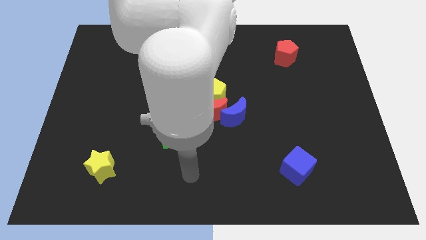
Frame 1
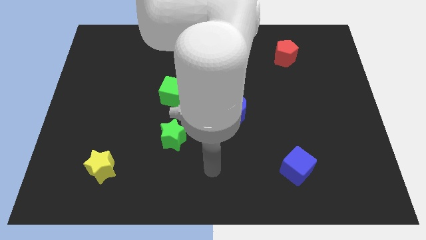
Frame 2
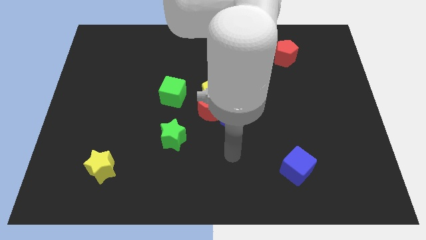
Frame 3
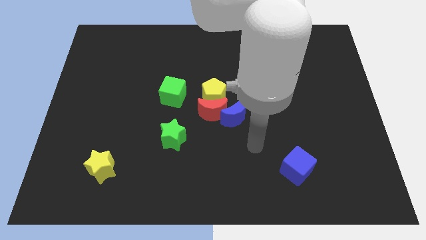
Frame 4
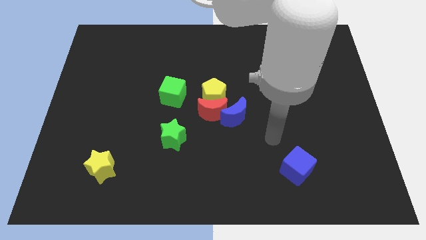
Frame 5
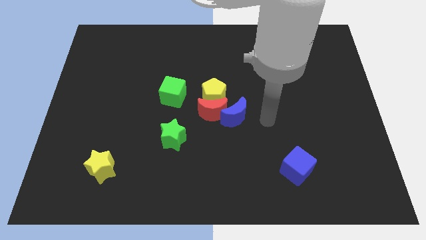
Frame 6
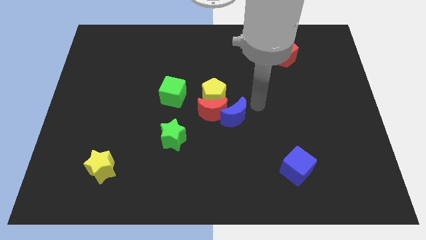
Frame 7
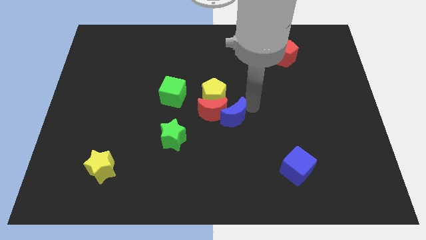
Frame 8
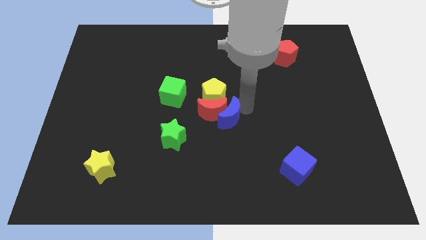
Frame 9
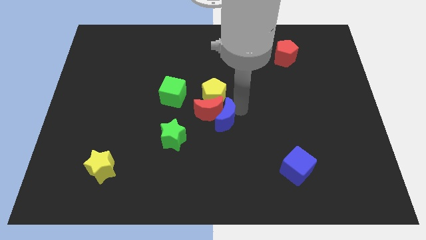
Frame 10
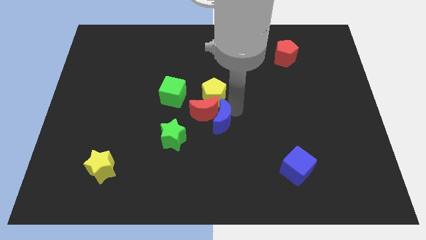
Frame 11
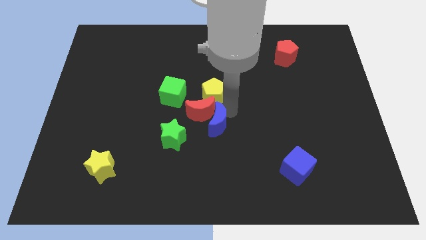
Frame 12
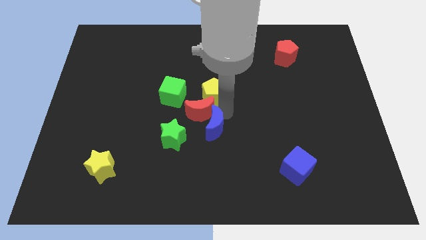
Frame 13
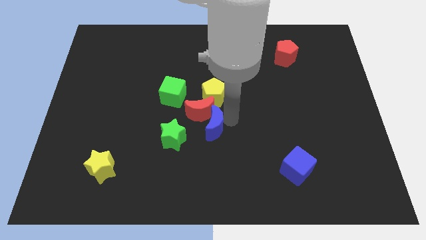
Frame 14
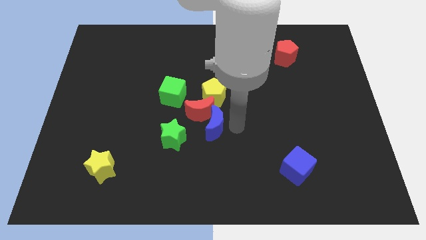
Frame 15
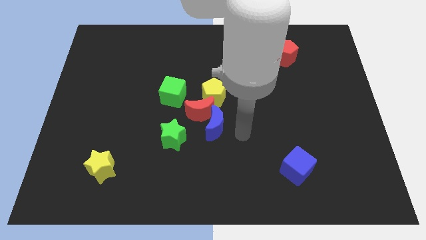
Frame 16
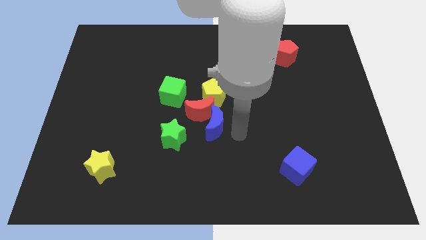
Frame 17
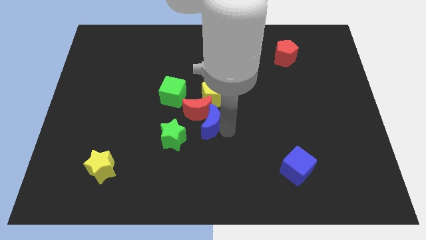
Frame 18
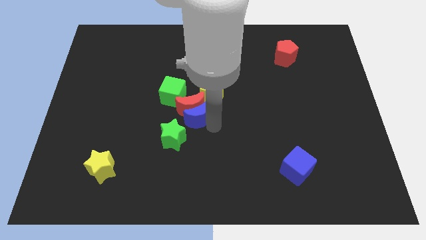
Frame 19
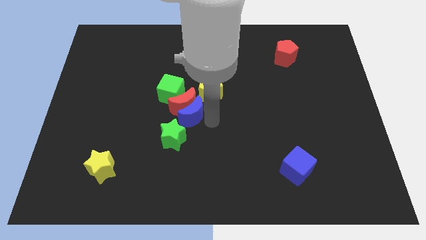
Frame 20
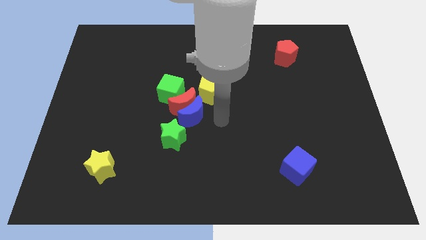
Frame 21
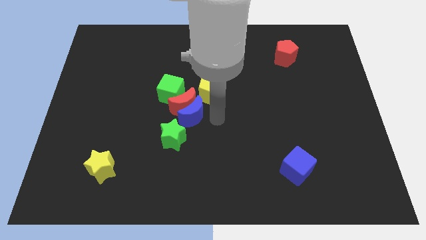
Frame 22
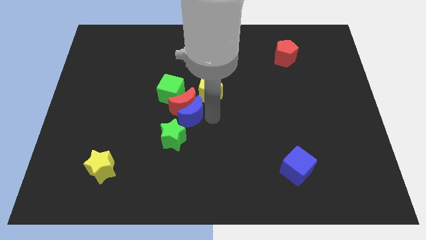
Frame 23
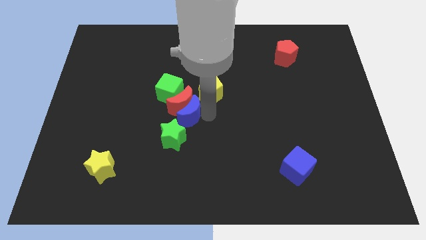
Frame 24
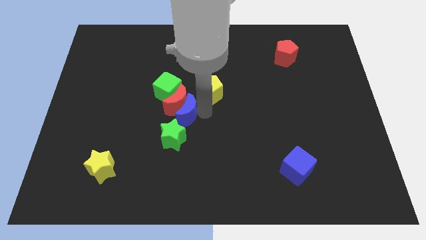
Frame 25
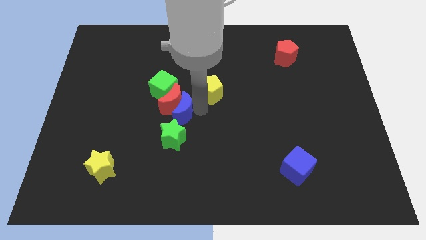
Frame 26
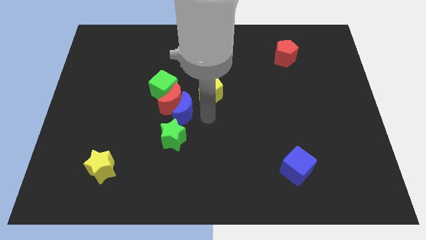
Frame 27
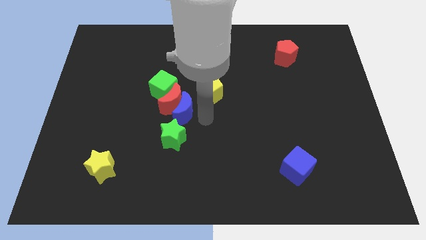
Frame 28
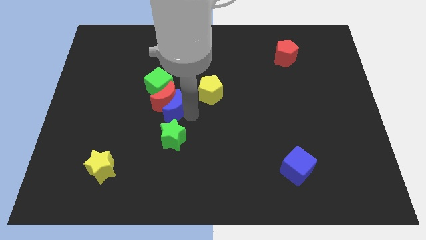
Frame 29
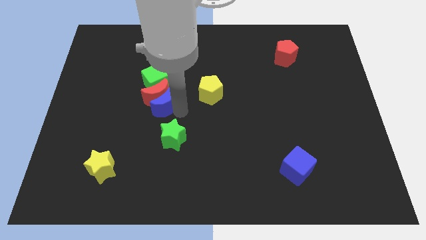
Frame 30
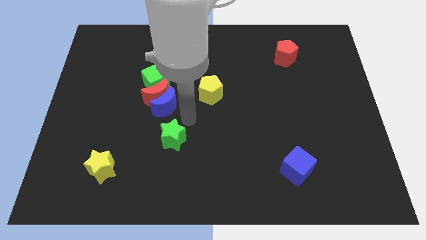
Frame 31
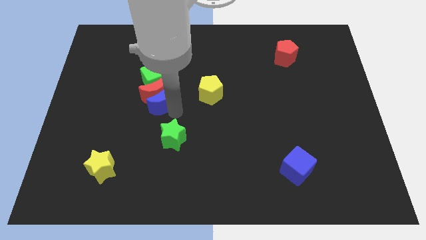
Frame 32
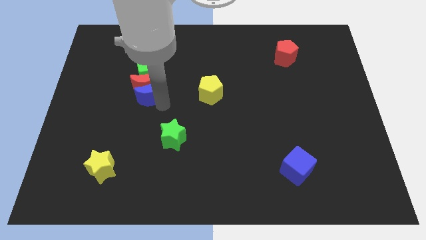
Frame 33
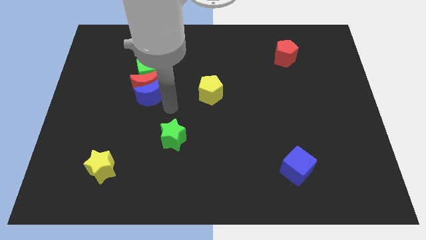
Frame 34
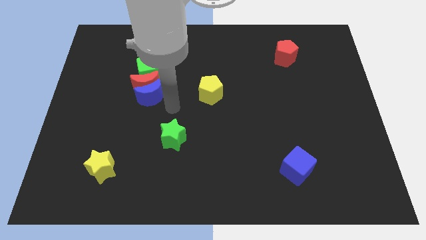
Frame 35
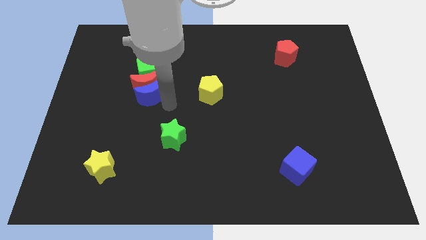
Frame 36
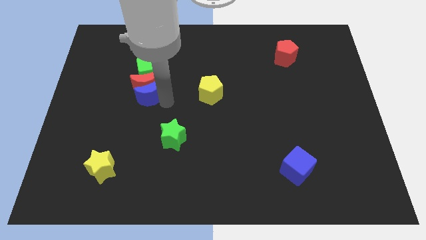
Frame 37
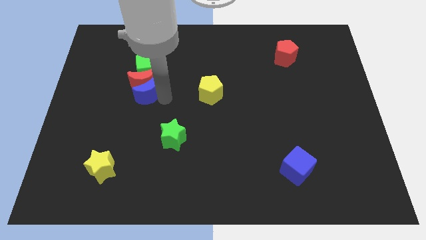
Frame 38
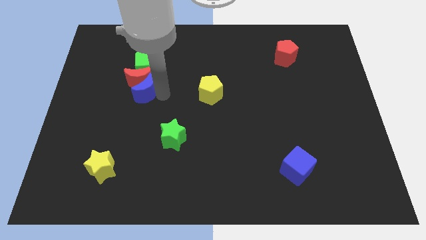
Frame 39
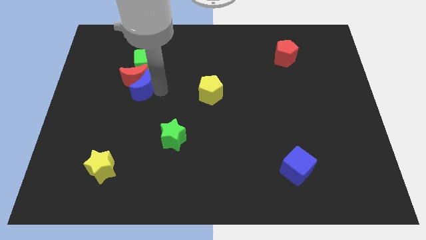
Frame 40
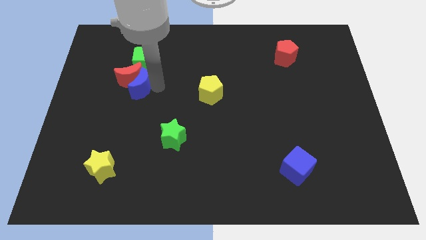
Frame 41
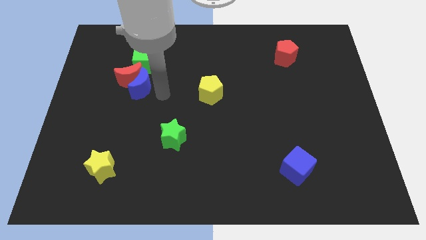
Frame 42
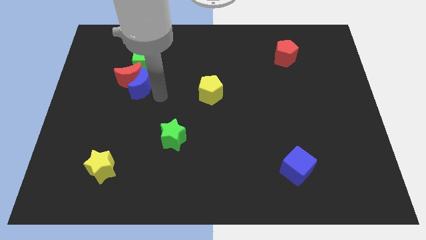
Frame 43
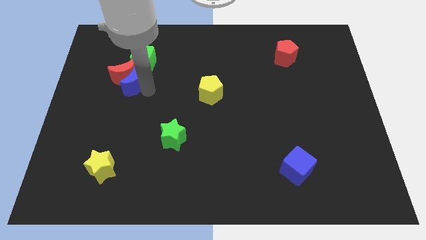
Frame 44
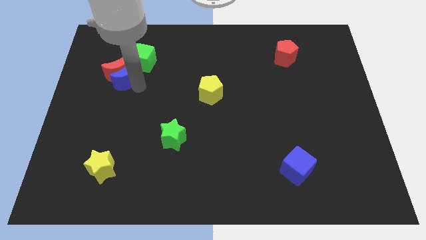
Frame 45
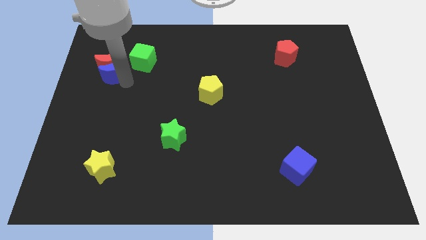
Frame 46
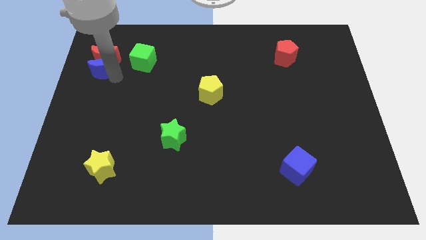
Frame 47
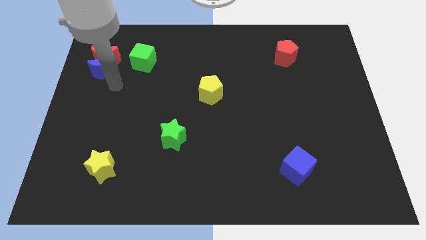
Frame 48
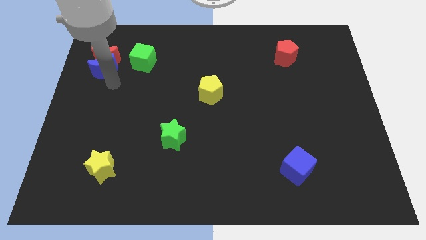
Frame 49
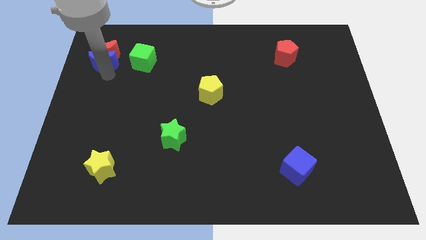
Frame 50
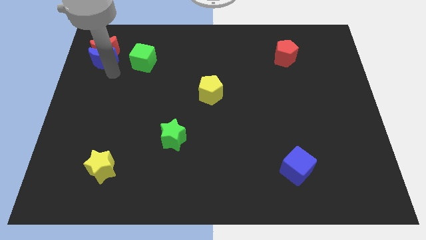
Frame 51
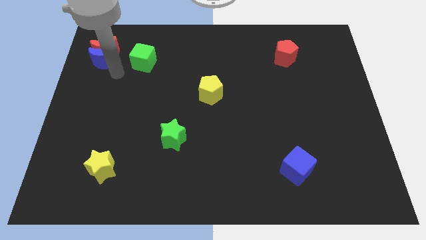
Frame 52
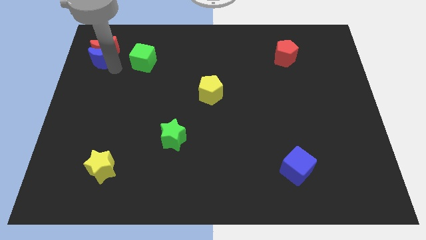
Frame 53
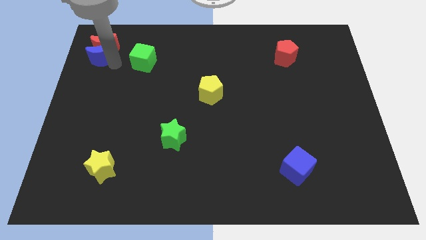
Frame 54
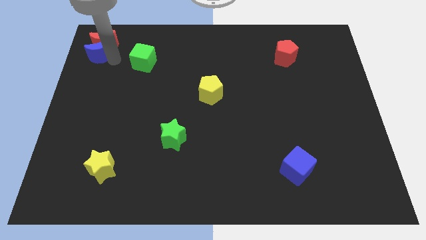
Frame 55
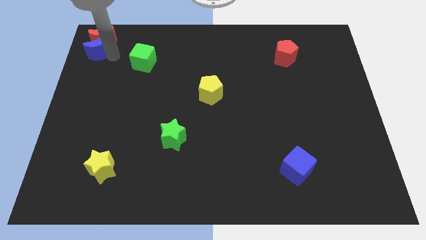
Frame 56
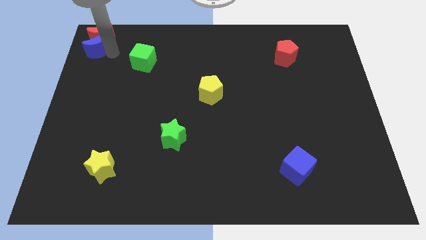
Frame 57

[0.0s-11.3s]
push the blue moon to the top left

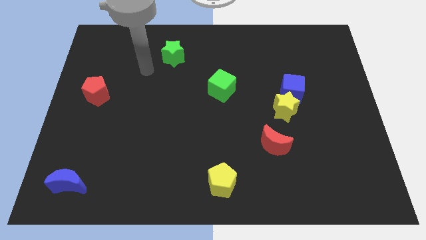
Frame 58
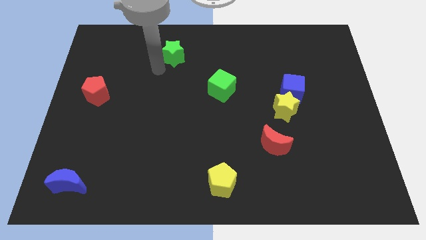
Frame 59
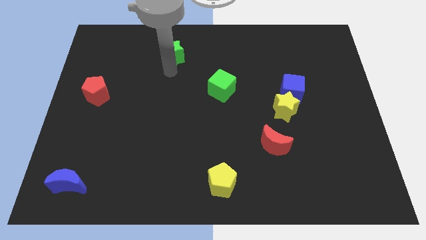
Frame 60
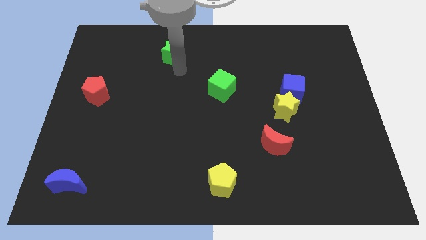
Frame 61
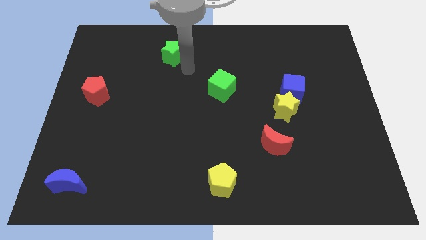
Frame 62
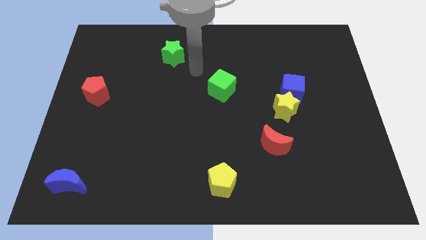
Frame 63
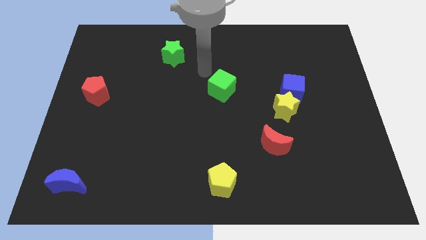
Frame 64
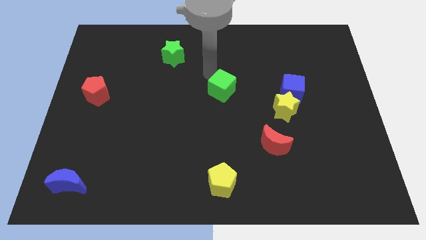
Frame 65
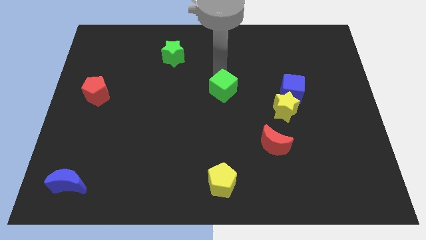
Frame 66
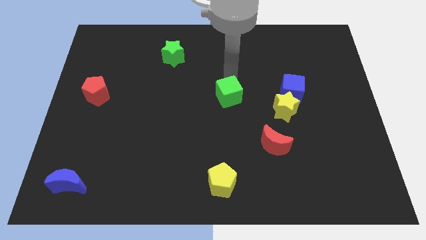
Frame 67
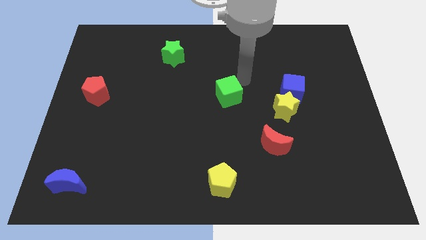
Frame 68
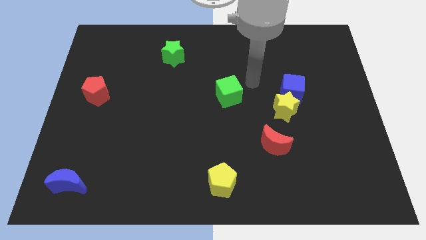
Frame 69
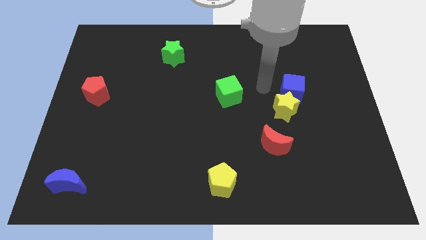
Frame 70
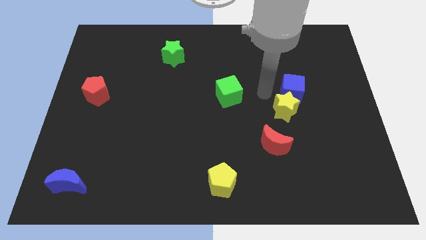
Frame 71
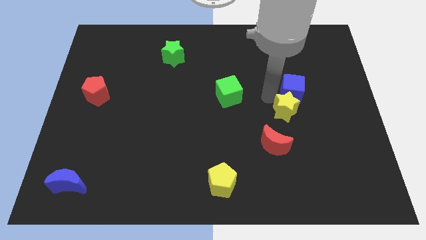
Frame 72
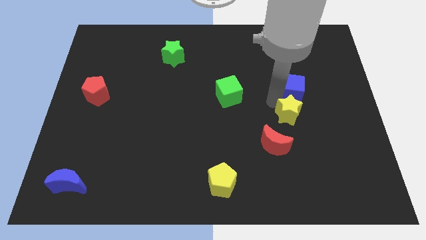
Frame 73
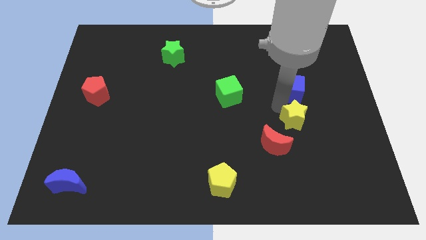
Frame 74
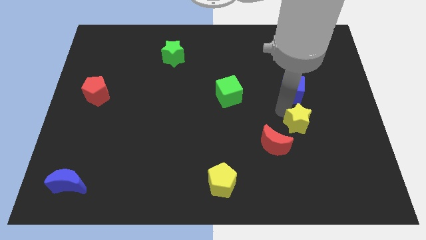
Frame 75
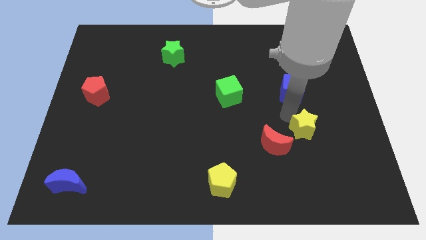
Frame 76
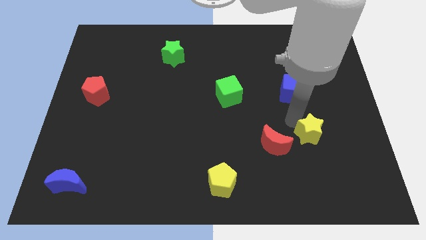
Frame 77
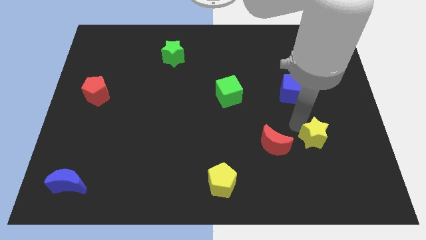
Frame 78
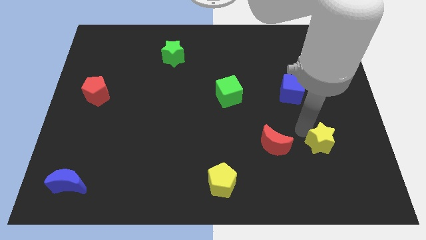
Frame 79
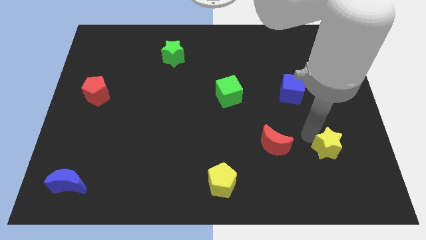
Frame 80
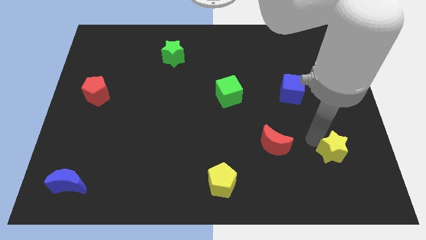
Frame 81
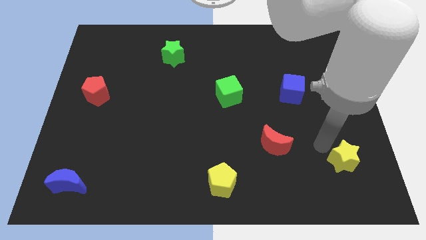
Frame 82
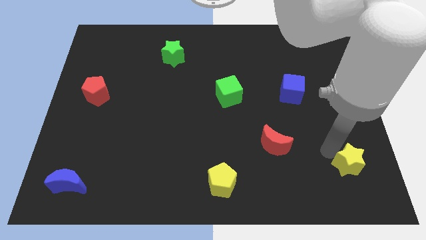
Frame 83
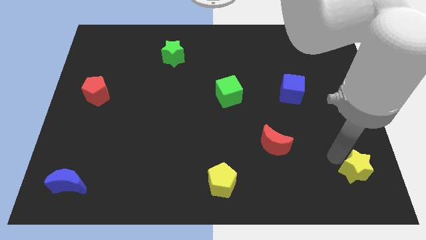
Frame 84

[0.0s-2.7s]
push the yellow star to the bottom right of the board
